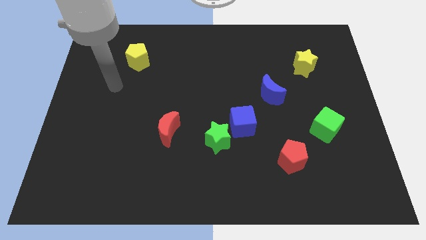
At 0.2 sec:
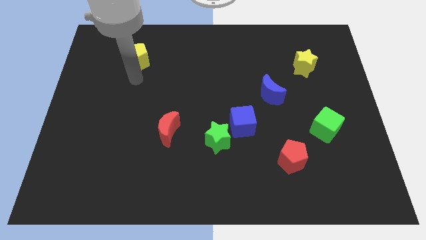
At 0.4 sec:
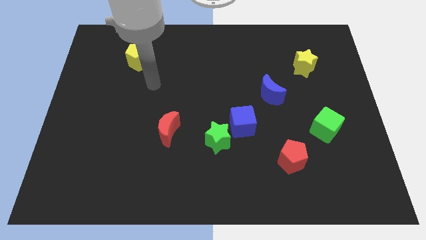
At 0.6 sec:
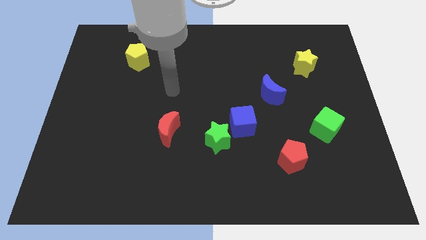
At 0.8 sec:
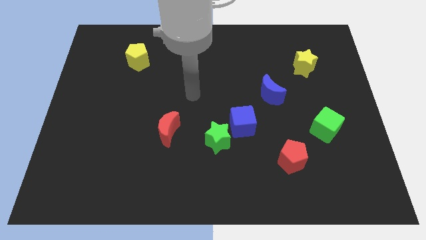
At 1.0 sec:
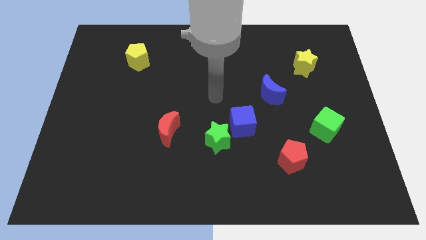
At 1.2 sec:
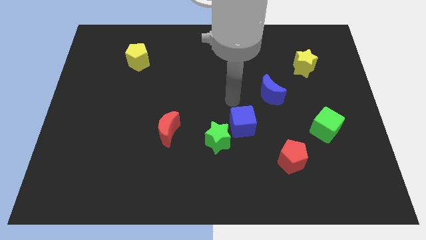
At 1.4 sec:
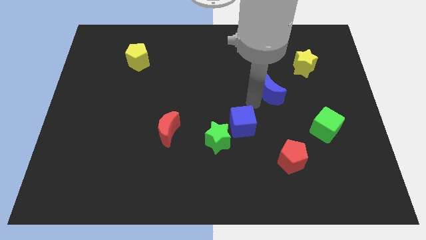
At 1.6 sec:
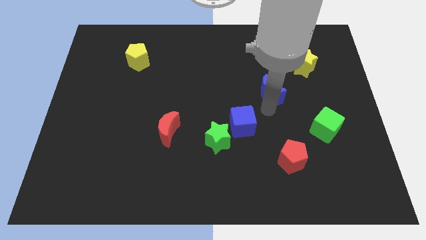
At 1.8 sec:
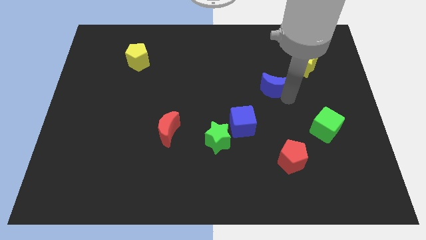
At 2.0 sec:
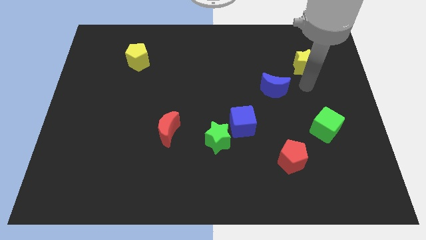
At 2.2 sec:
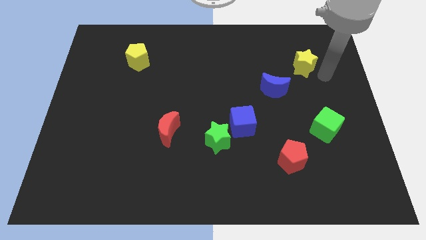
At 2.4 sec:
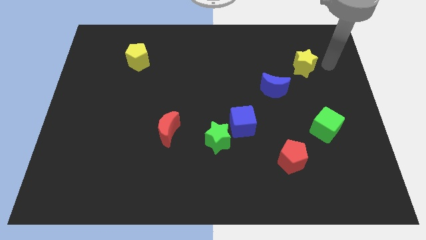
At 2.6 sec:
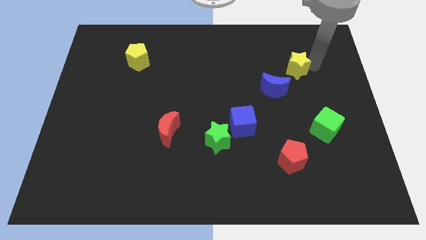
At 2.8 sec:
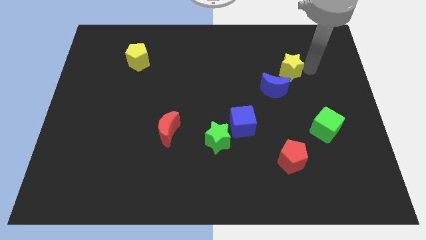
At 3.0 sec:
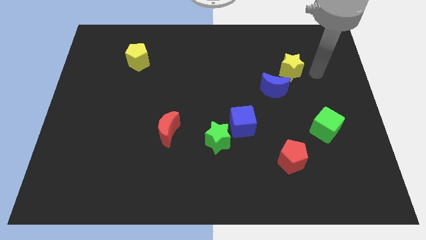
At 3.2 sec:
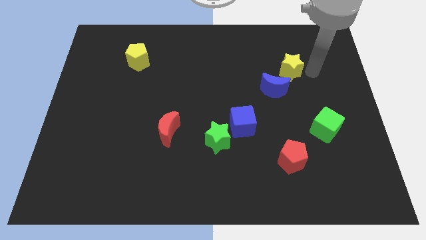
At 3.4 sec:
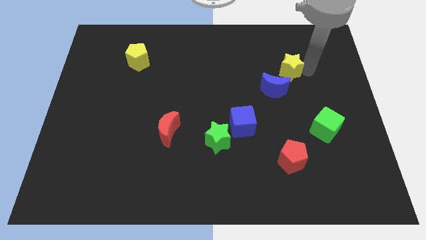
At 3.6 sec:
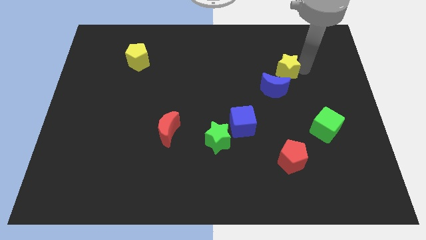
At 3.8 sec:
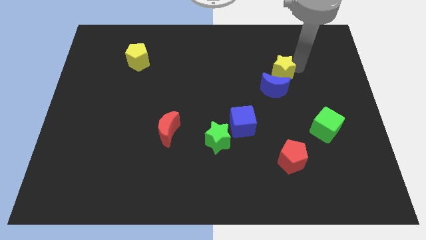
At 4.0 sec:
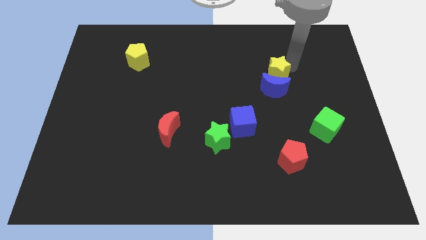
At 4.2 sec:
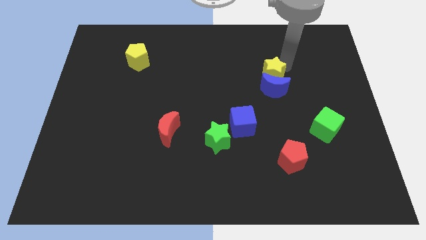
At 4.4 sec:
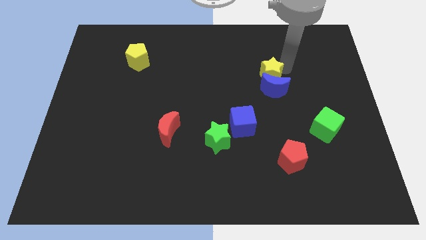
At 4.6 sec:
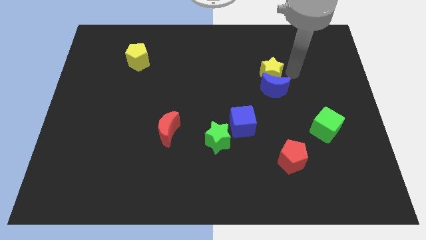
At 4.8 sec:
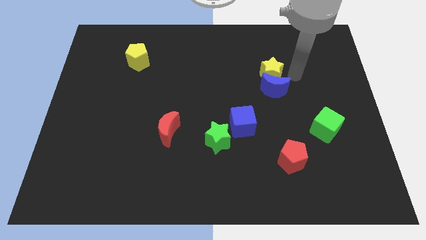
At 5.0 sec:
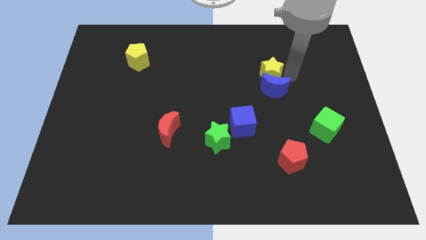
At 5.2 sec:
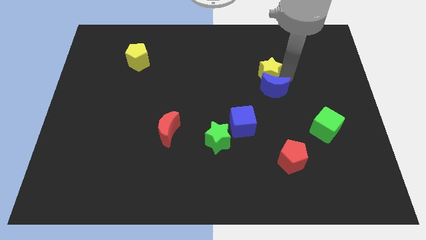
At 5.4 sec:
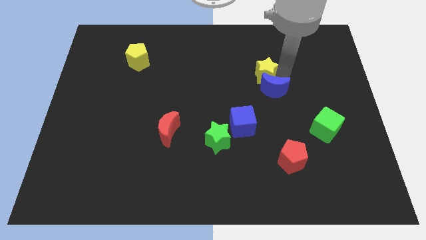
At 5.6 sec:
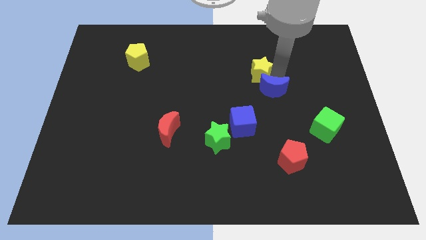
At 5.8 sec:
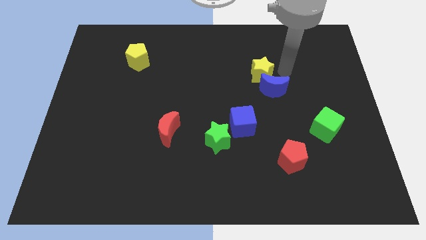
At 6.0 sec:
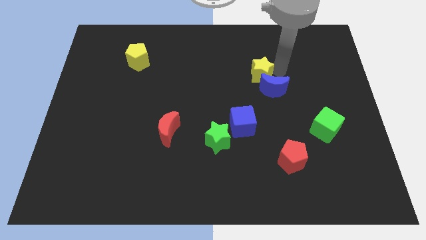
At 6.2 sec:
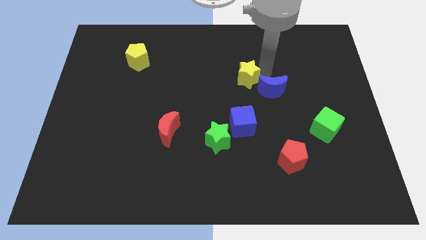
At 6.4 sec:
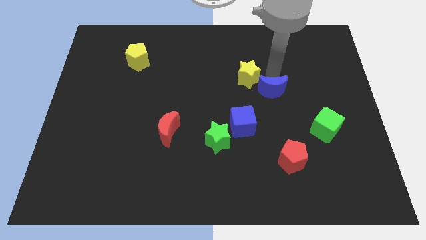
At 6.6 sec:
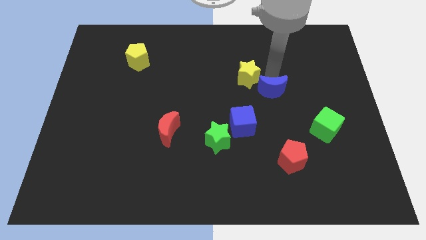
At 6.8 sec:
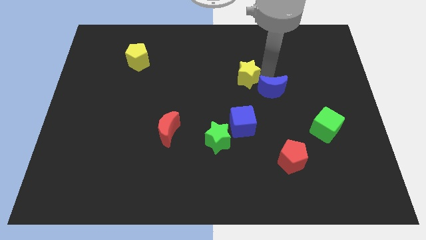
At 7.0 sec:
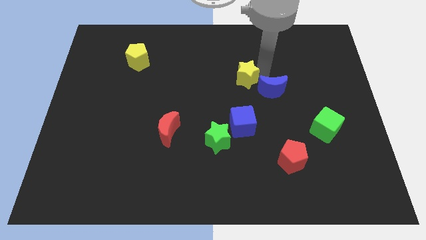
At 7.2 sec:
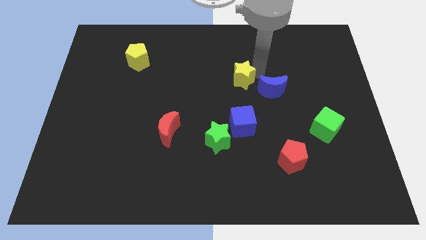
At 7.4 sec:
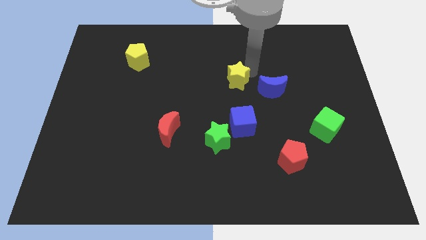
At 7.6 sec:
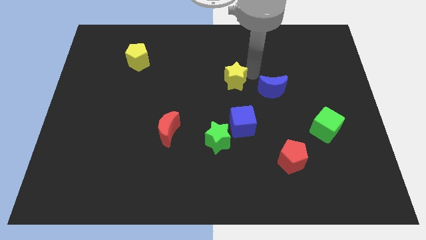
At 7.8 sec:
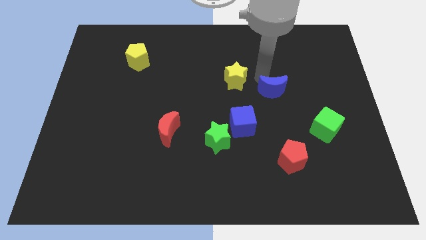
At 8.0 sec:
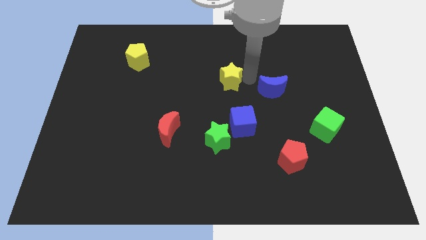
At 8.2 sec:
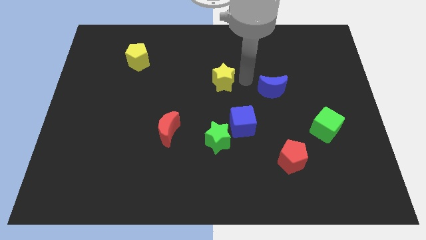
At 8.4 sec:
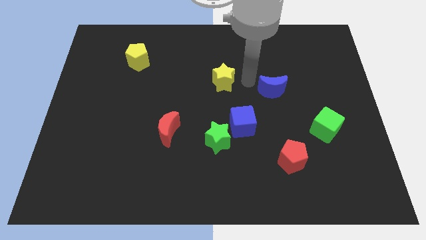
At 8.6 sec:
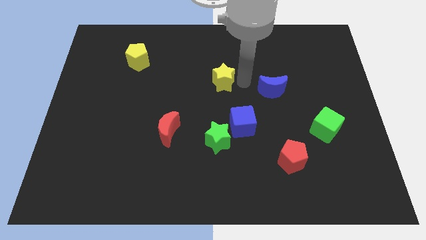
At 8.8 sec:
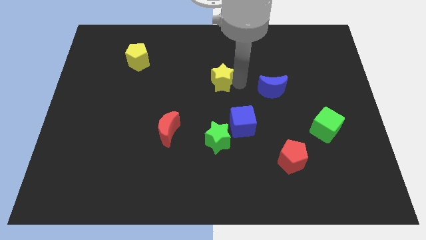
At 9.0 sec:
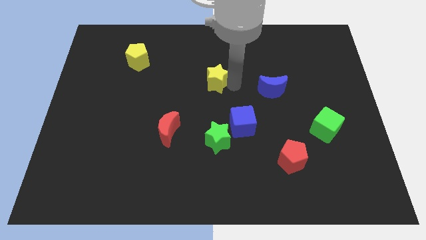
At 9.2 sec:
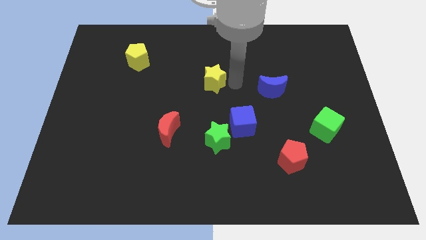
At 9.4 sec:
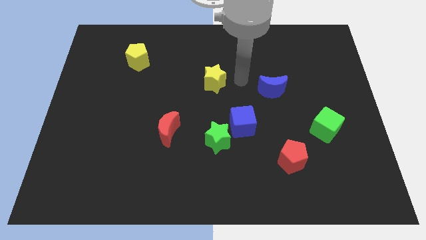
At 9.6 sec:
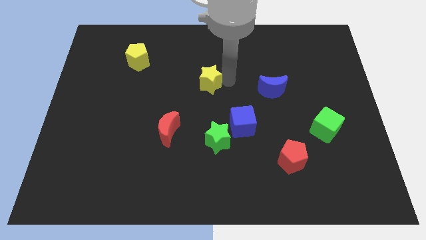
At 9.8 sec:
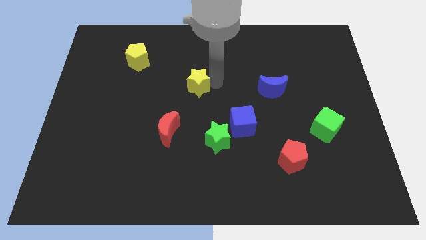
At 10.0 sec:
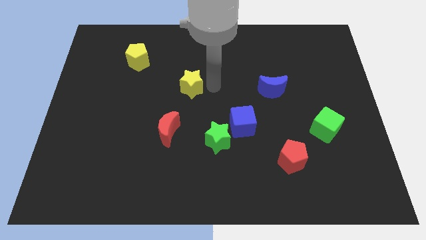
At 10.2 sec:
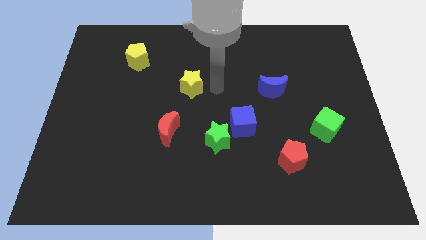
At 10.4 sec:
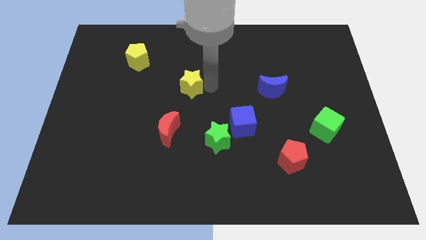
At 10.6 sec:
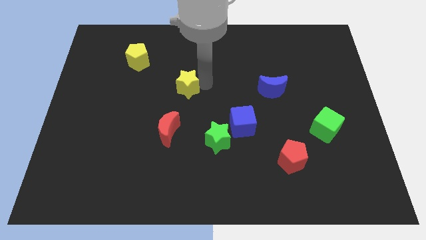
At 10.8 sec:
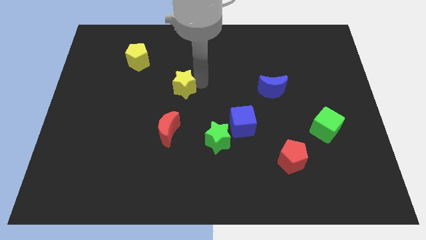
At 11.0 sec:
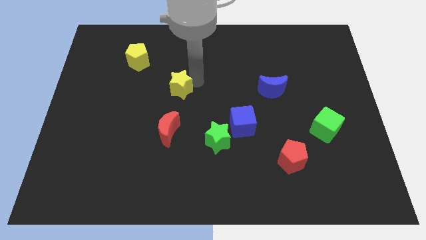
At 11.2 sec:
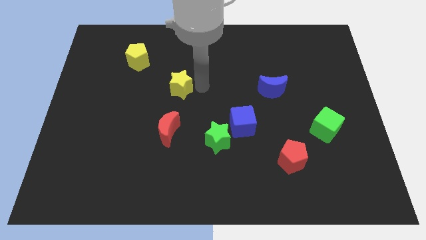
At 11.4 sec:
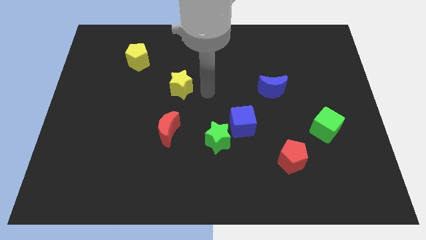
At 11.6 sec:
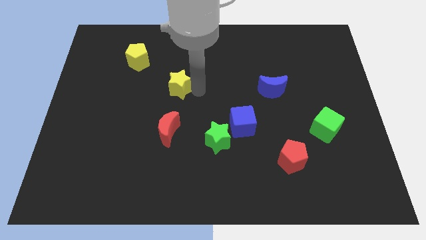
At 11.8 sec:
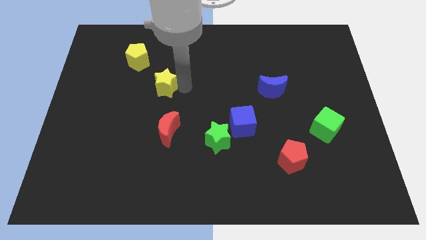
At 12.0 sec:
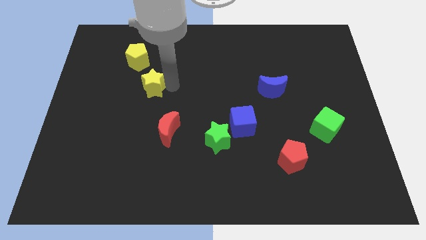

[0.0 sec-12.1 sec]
put the yellow star below the yellow pentagon
